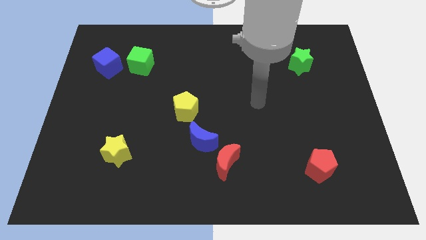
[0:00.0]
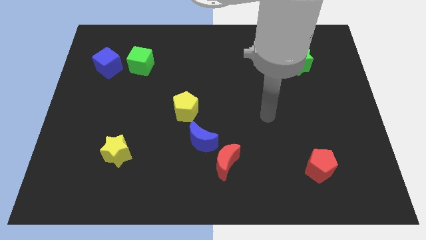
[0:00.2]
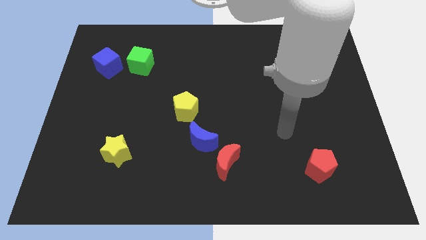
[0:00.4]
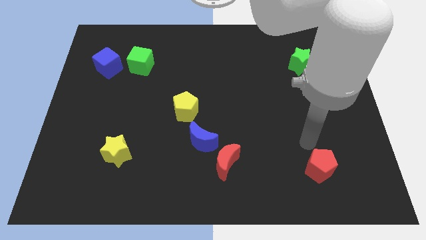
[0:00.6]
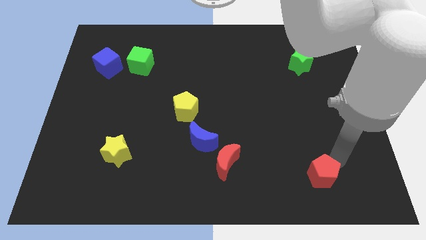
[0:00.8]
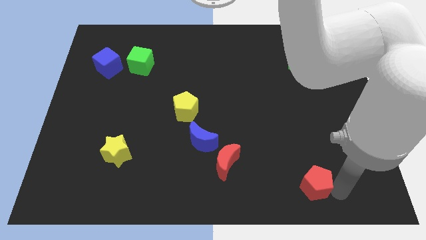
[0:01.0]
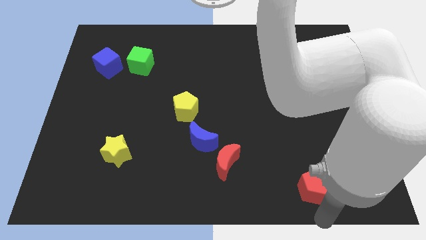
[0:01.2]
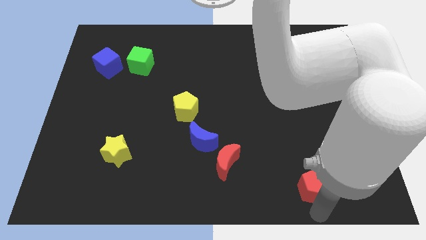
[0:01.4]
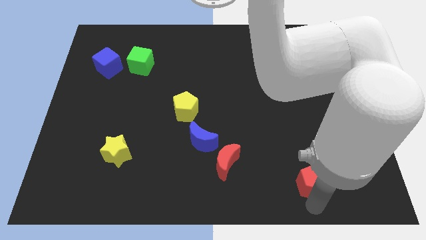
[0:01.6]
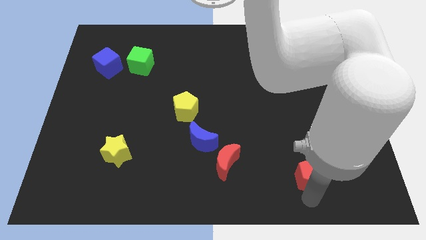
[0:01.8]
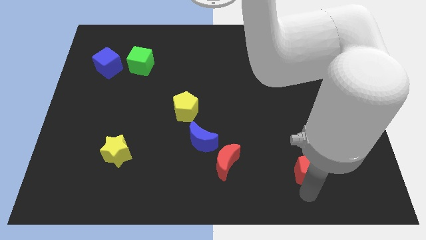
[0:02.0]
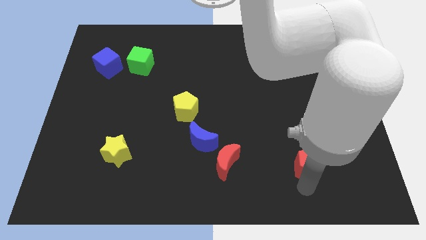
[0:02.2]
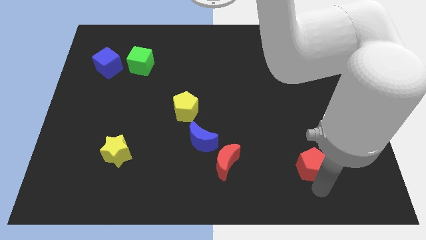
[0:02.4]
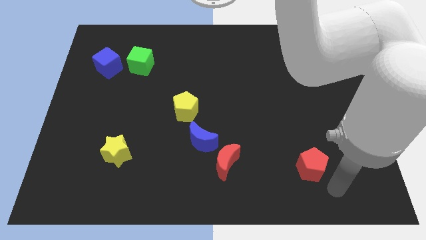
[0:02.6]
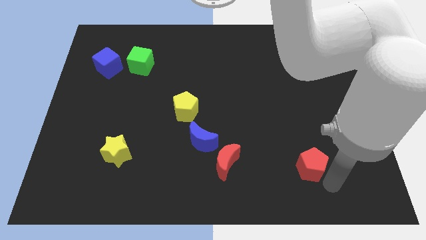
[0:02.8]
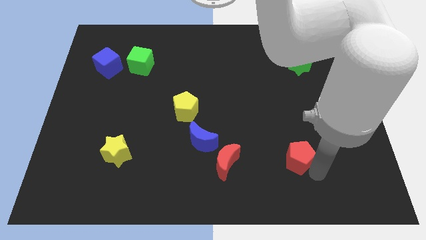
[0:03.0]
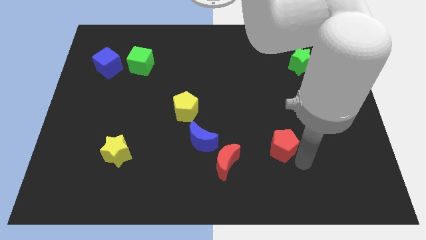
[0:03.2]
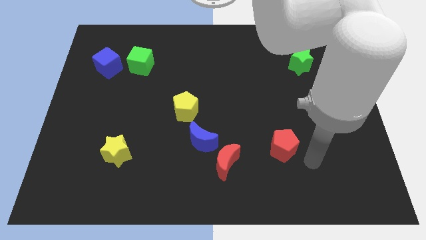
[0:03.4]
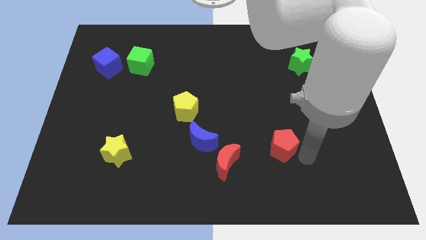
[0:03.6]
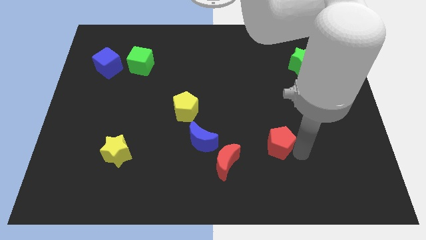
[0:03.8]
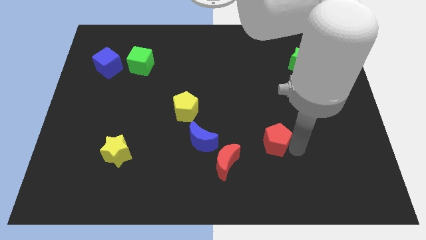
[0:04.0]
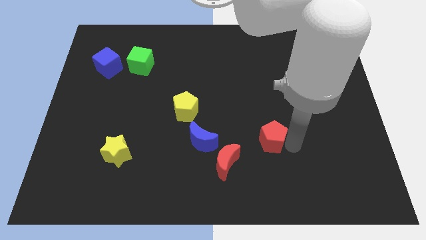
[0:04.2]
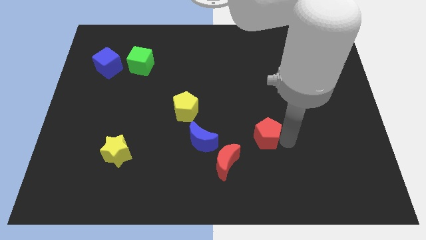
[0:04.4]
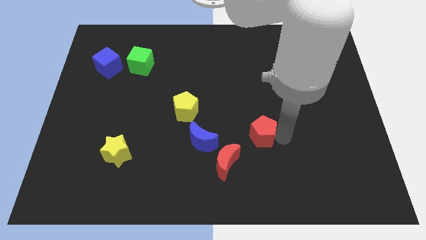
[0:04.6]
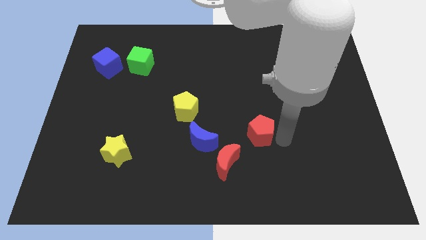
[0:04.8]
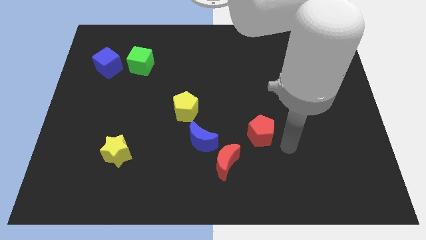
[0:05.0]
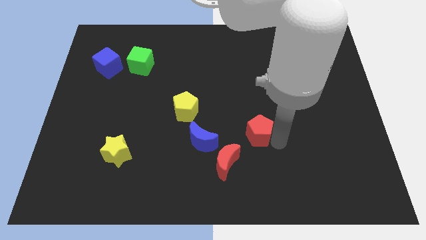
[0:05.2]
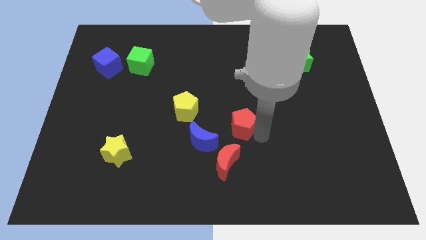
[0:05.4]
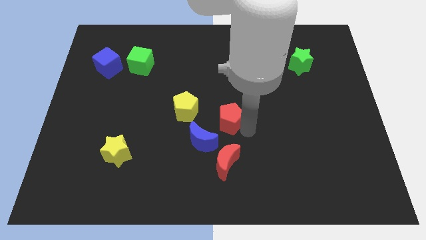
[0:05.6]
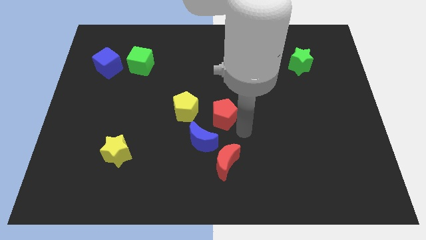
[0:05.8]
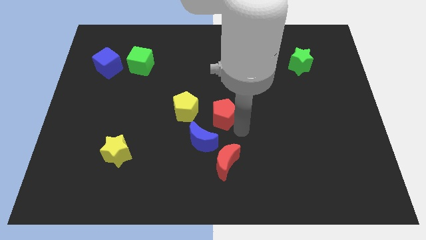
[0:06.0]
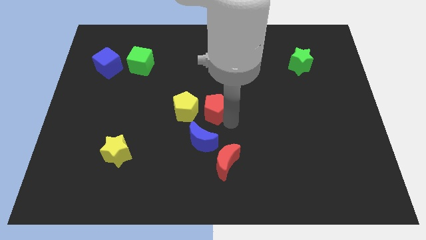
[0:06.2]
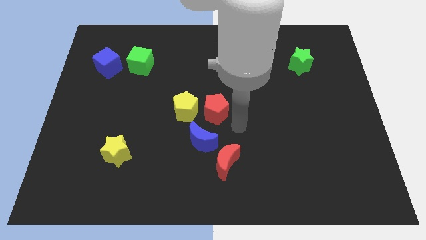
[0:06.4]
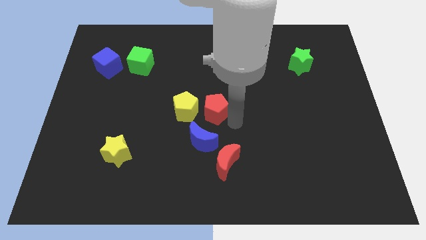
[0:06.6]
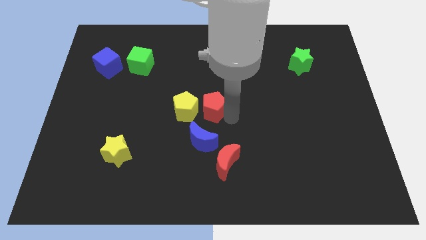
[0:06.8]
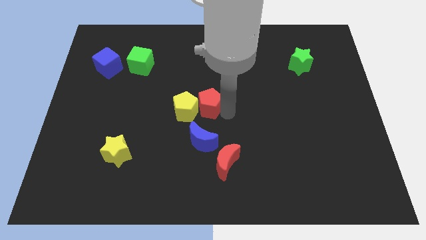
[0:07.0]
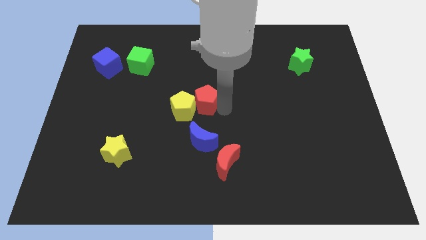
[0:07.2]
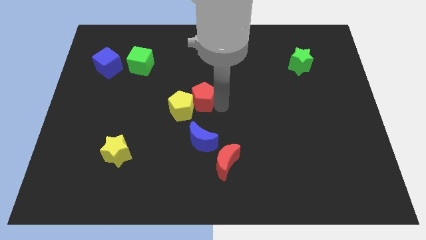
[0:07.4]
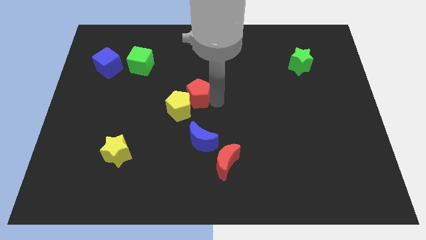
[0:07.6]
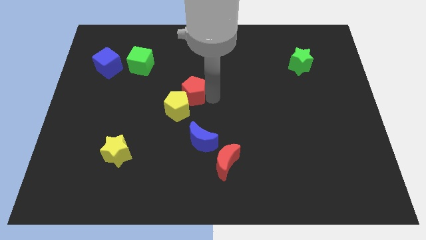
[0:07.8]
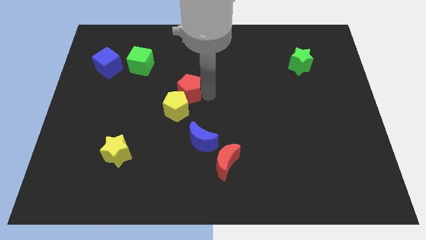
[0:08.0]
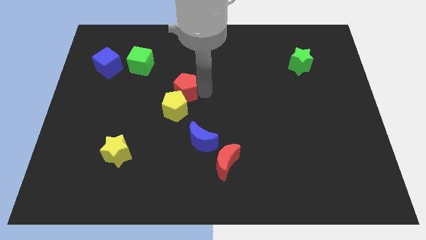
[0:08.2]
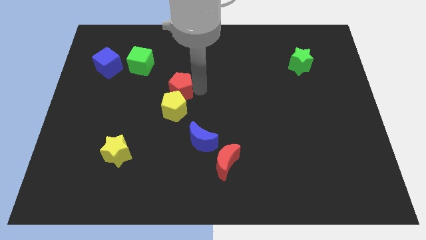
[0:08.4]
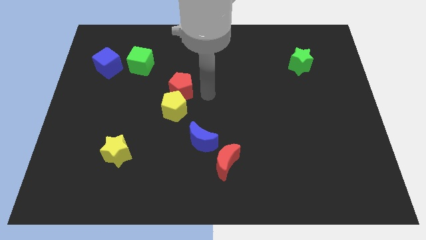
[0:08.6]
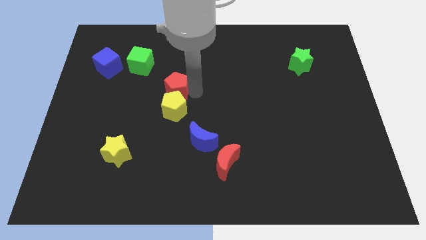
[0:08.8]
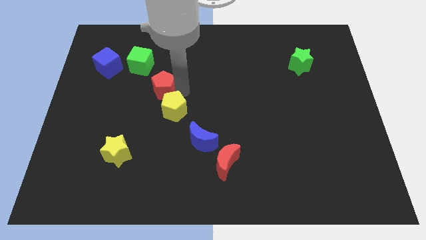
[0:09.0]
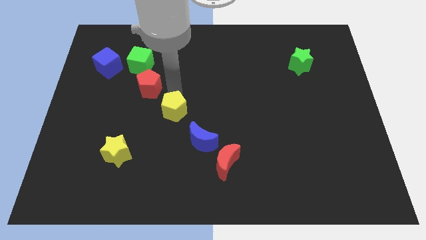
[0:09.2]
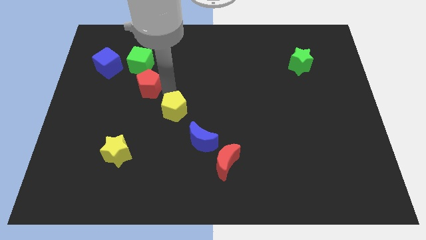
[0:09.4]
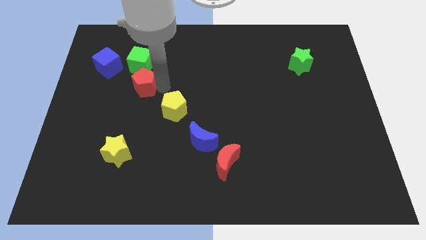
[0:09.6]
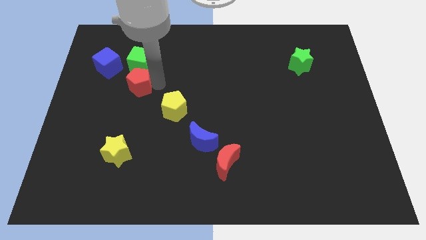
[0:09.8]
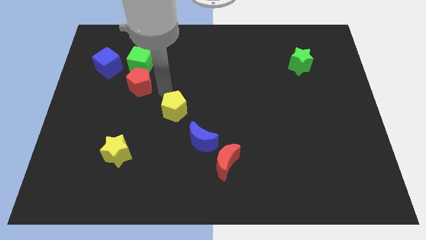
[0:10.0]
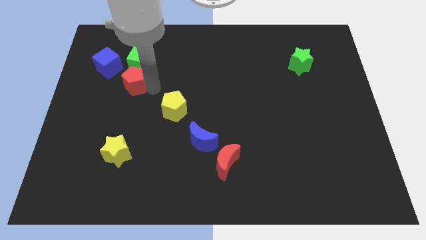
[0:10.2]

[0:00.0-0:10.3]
push the red pentagon to the bottom left of the green cube

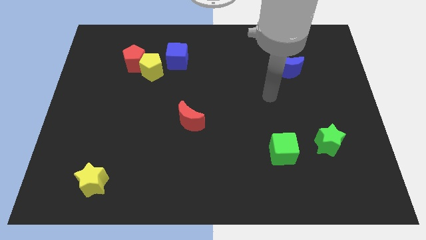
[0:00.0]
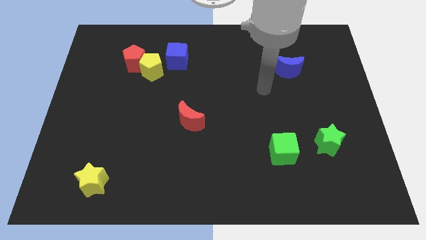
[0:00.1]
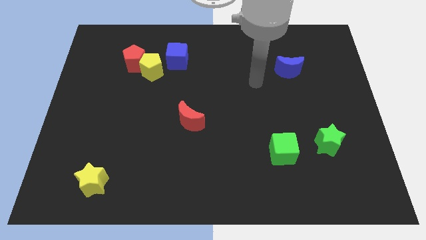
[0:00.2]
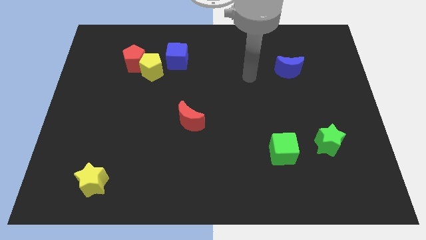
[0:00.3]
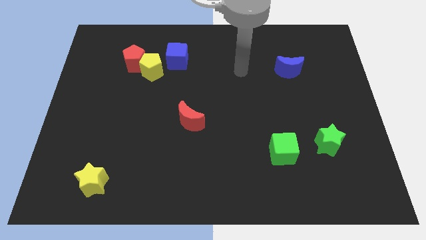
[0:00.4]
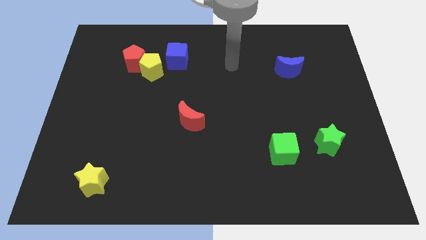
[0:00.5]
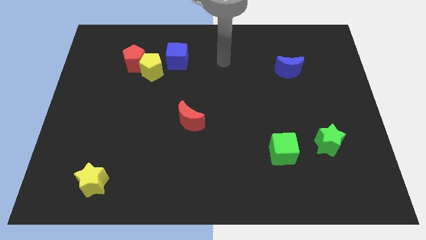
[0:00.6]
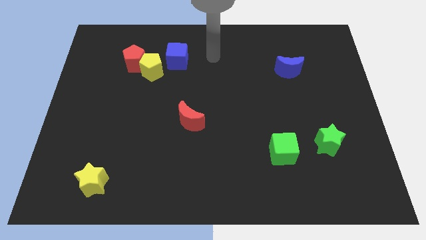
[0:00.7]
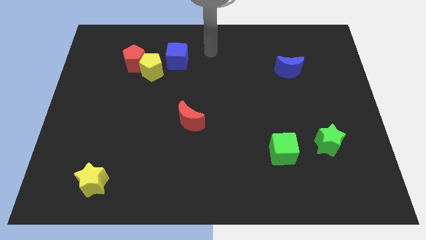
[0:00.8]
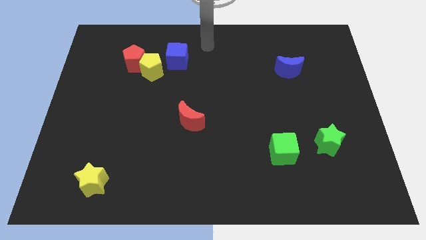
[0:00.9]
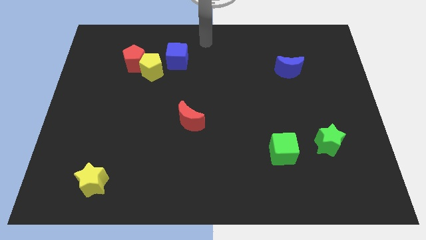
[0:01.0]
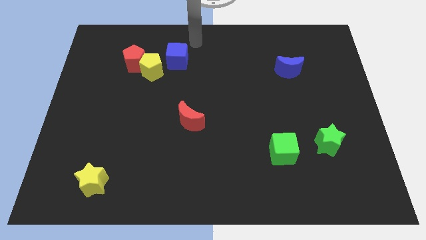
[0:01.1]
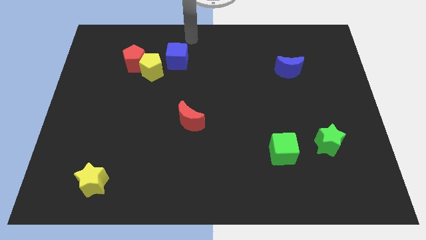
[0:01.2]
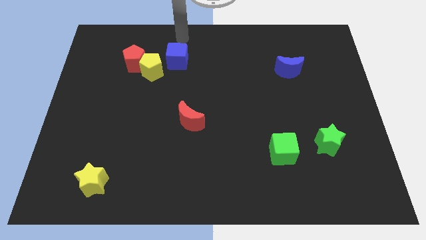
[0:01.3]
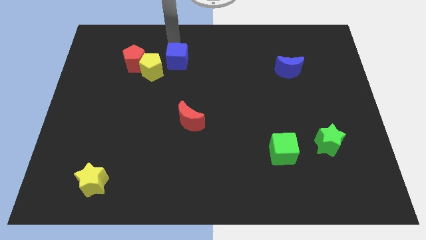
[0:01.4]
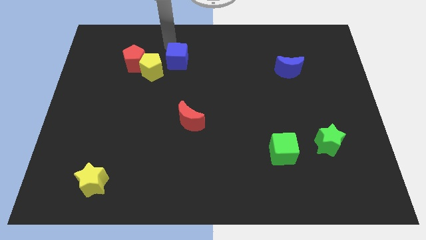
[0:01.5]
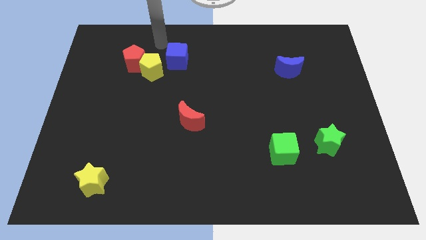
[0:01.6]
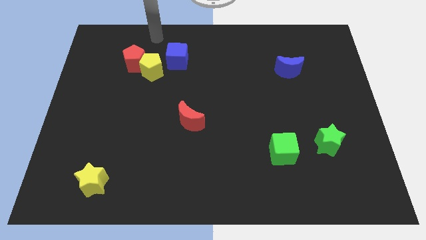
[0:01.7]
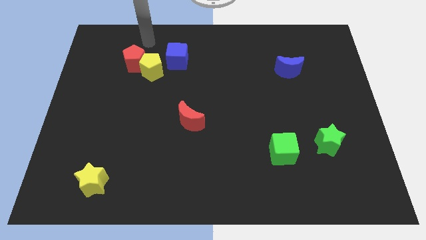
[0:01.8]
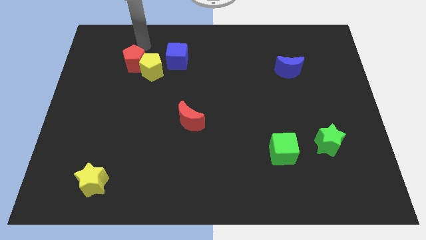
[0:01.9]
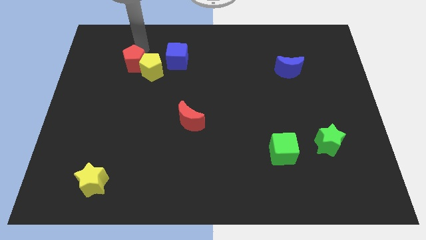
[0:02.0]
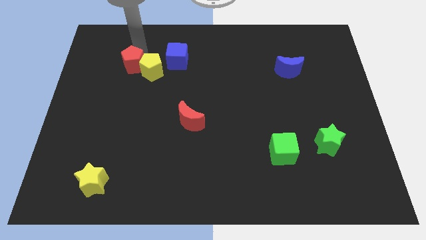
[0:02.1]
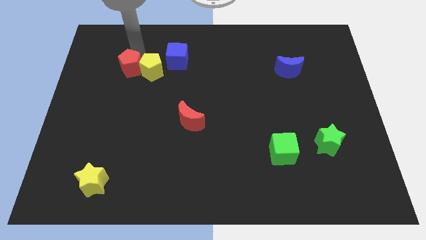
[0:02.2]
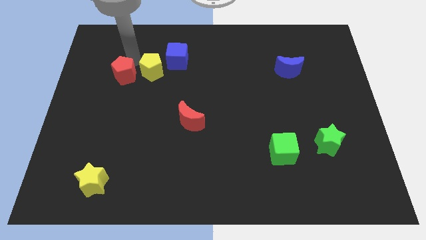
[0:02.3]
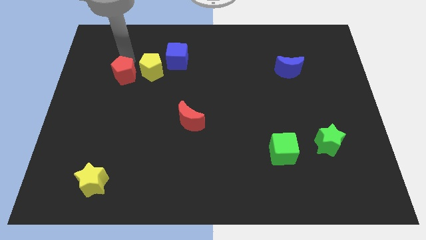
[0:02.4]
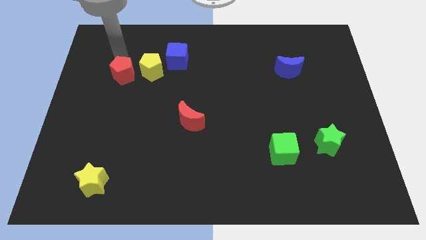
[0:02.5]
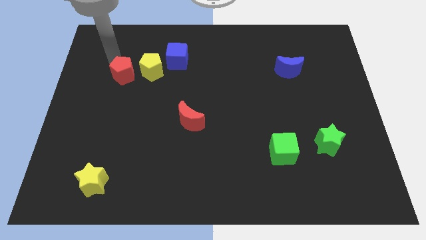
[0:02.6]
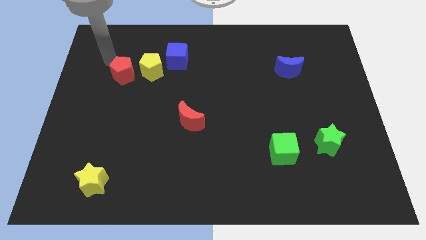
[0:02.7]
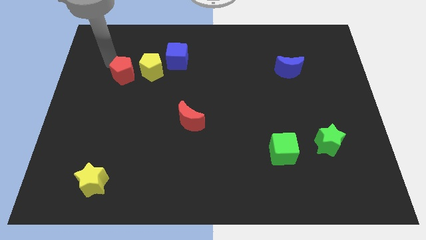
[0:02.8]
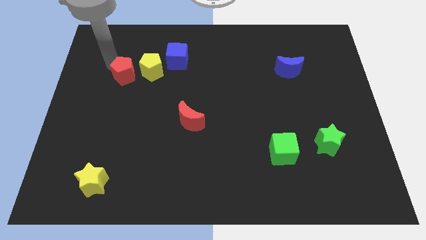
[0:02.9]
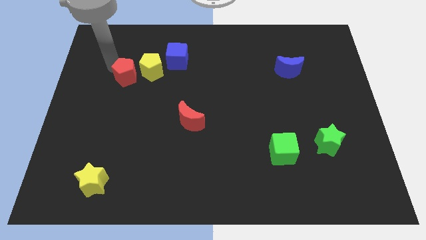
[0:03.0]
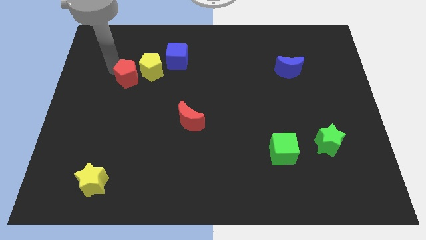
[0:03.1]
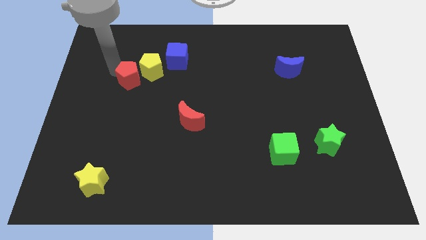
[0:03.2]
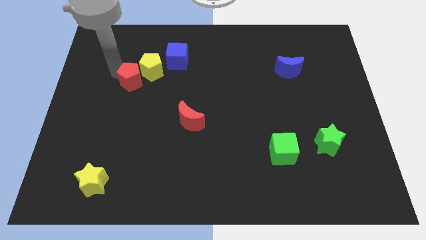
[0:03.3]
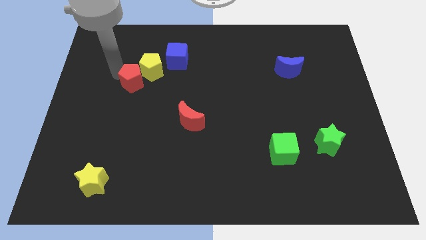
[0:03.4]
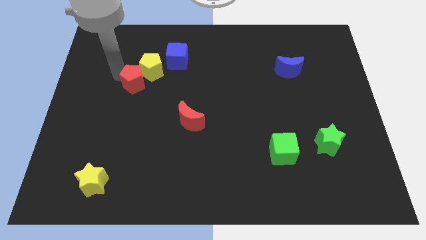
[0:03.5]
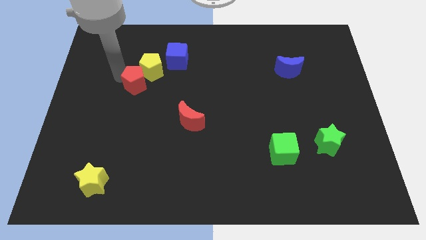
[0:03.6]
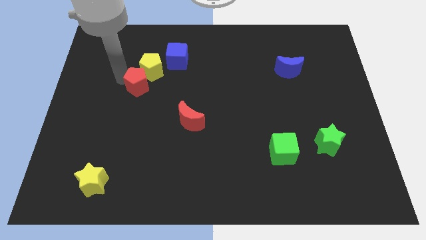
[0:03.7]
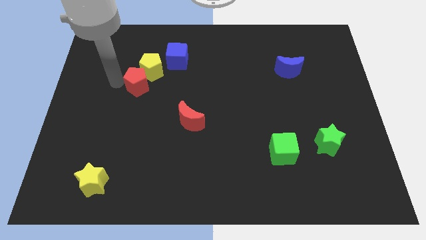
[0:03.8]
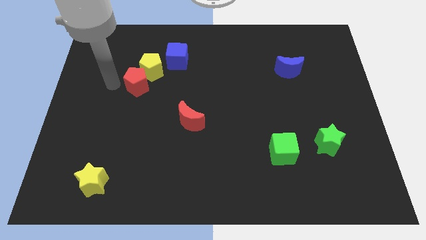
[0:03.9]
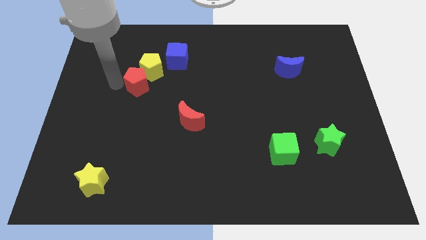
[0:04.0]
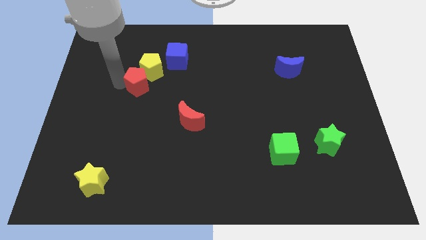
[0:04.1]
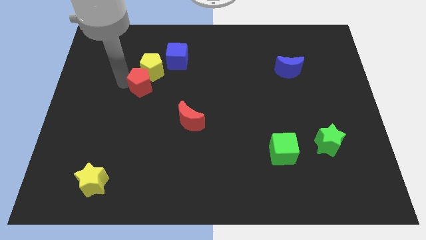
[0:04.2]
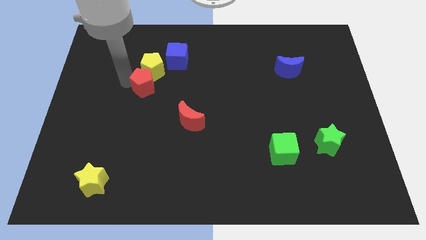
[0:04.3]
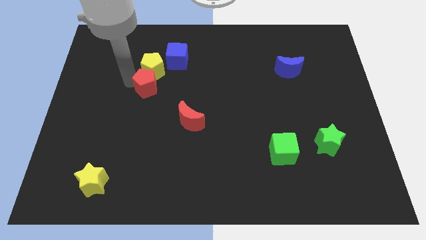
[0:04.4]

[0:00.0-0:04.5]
move the red pentagon diagonally down and to the right of the yellow pentagon
